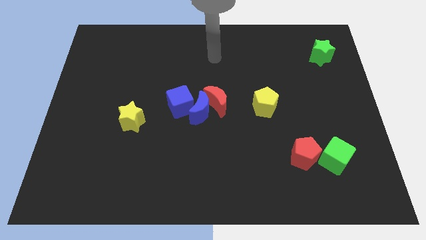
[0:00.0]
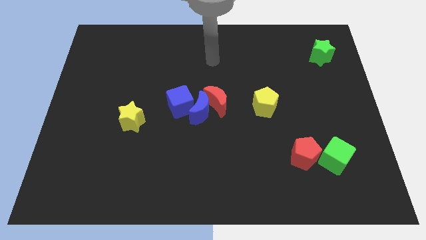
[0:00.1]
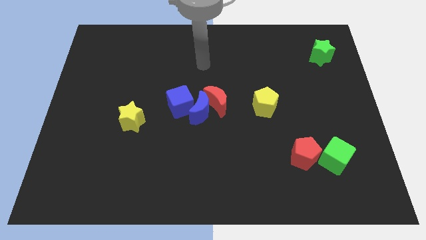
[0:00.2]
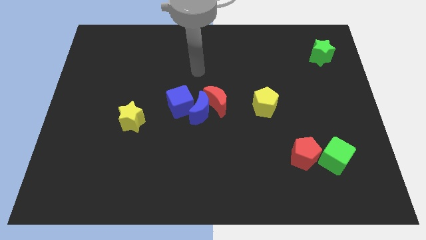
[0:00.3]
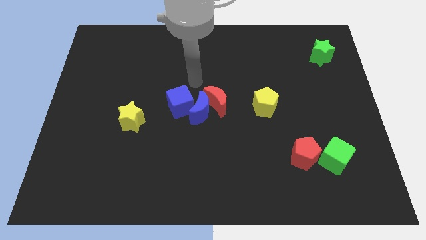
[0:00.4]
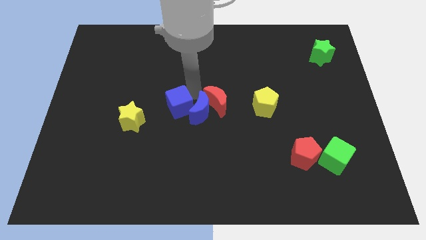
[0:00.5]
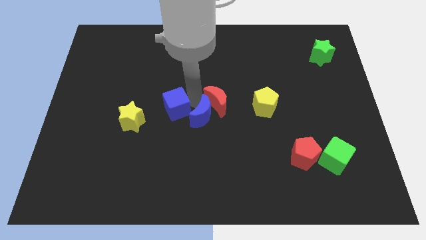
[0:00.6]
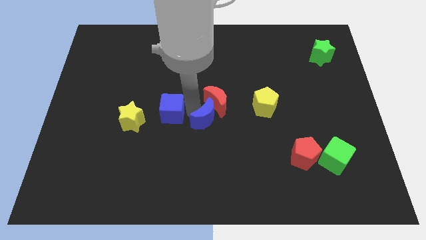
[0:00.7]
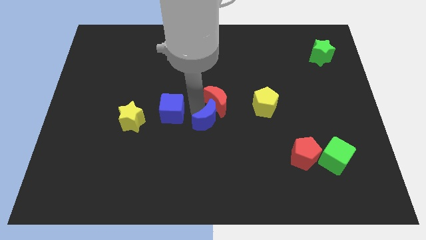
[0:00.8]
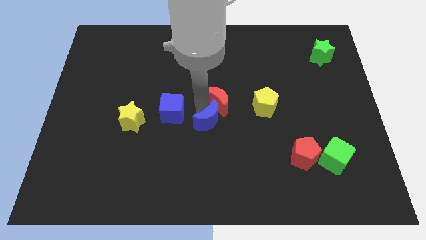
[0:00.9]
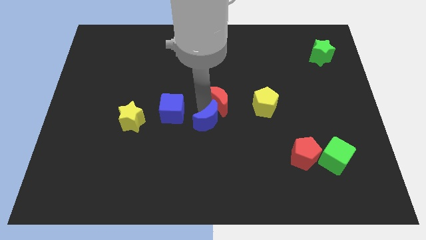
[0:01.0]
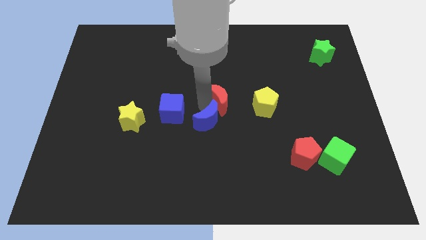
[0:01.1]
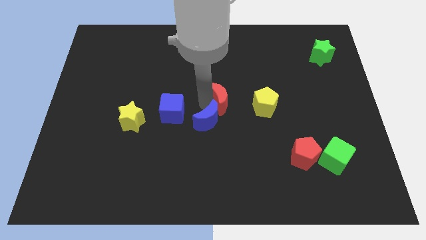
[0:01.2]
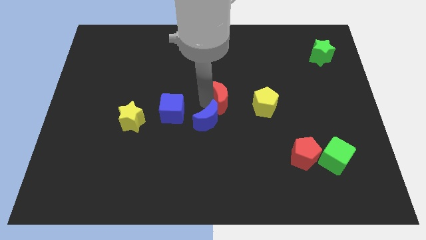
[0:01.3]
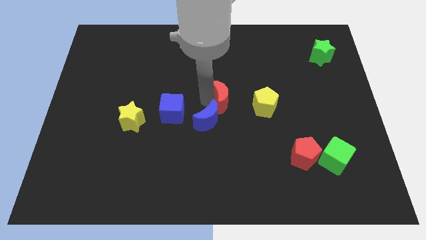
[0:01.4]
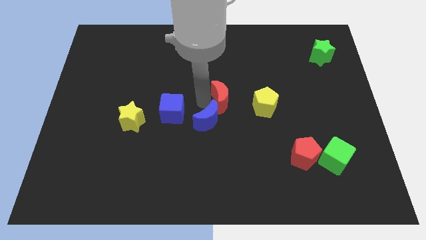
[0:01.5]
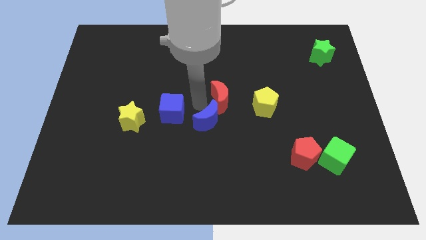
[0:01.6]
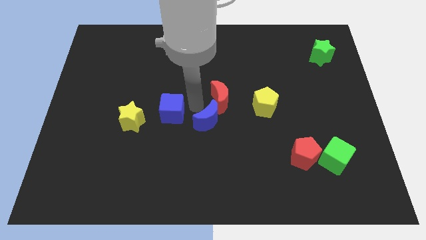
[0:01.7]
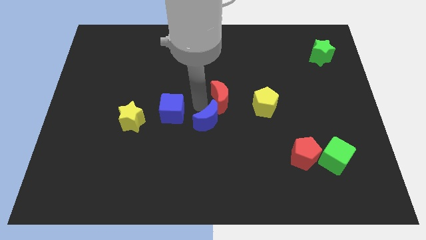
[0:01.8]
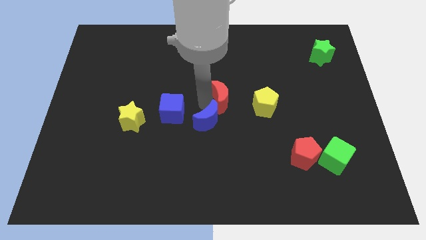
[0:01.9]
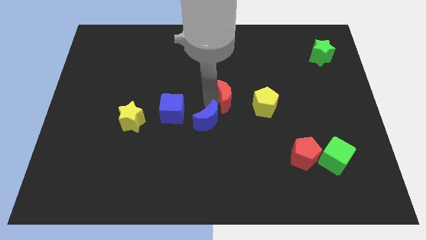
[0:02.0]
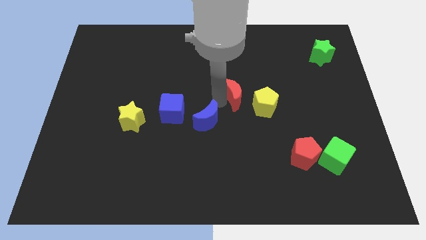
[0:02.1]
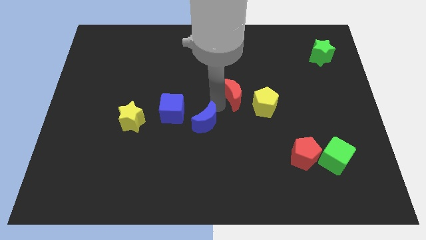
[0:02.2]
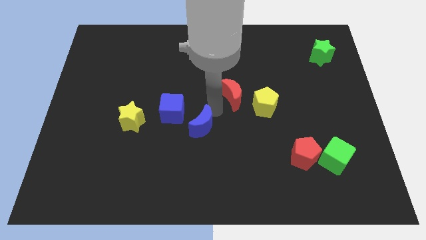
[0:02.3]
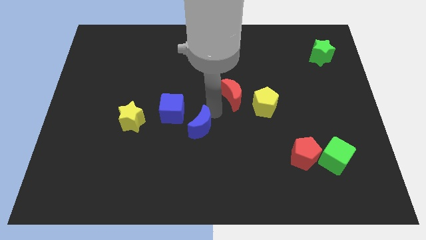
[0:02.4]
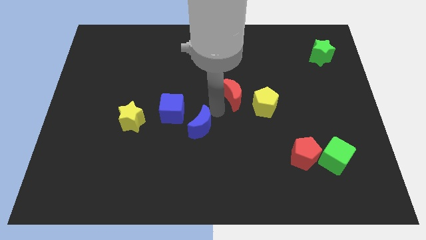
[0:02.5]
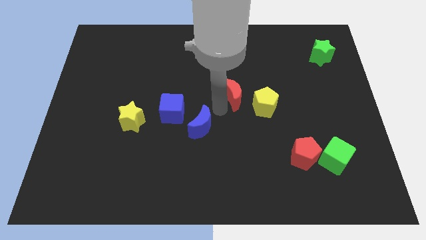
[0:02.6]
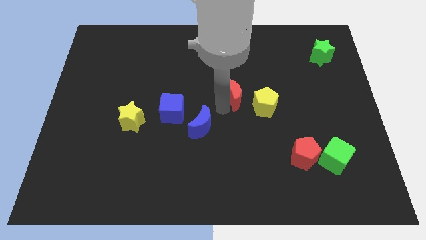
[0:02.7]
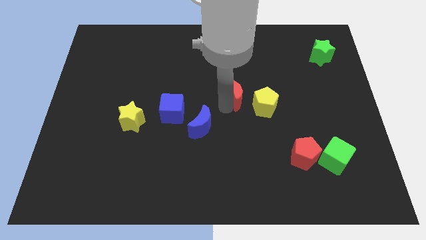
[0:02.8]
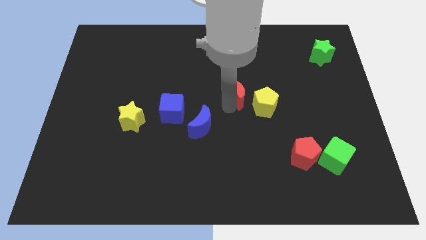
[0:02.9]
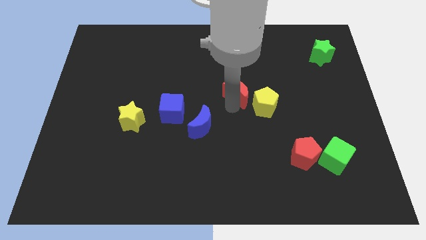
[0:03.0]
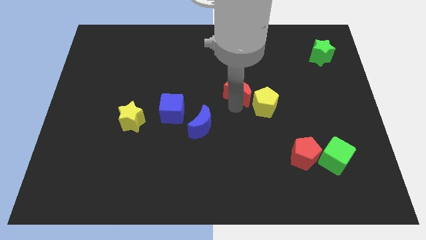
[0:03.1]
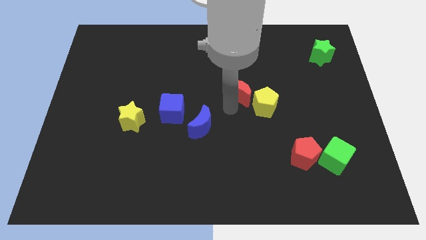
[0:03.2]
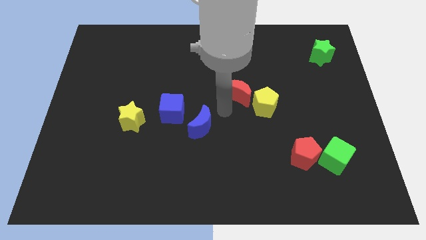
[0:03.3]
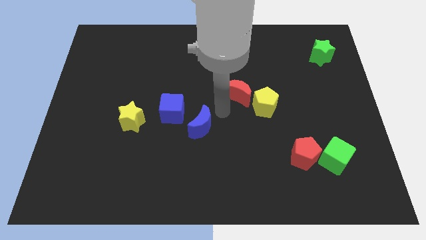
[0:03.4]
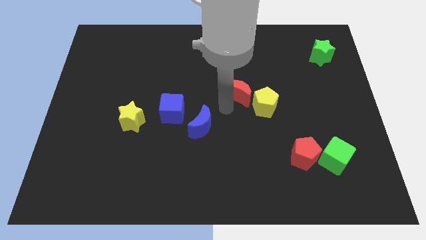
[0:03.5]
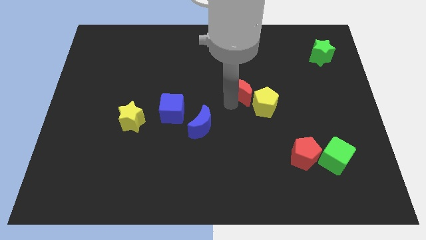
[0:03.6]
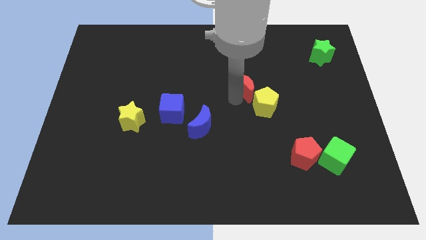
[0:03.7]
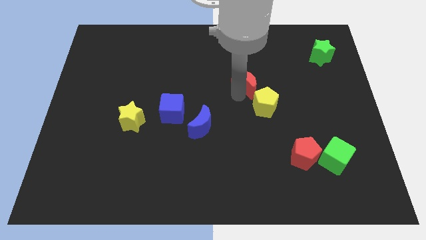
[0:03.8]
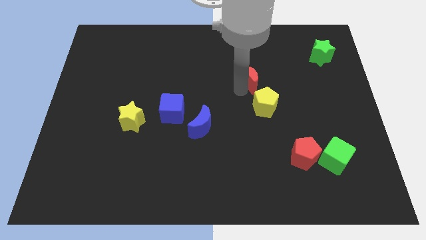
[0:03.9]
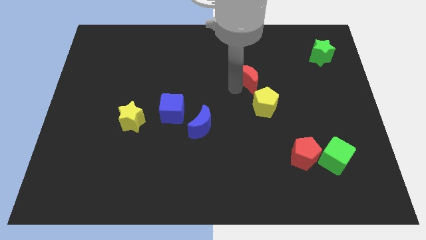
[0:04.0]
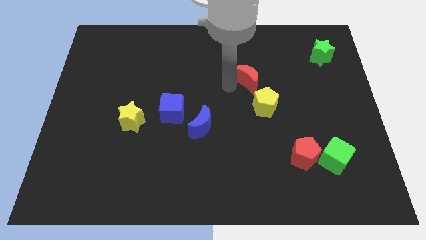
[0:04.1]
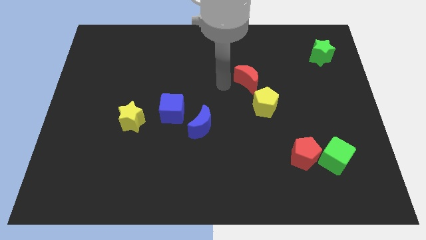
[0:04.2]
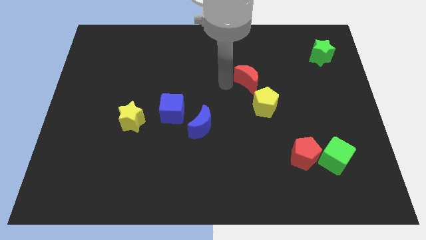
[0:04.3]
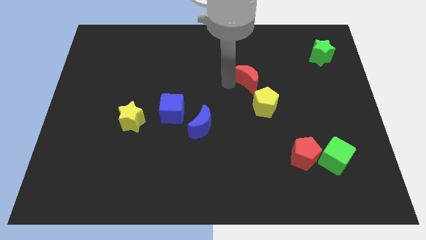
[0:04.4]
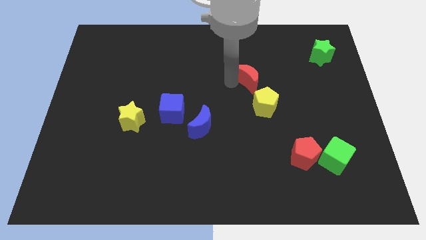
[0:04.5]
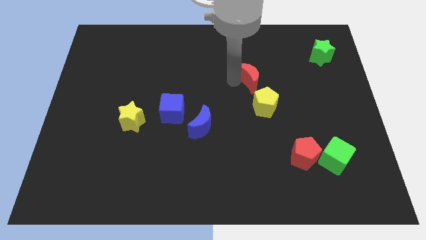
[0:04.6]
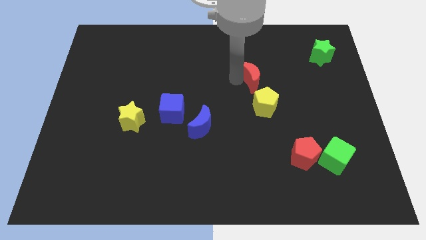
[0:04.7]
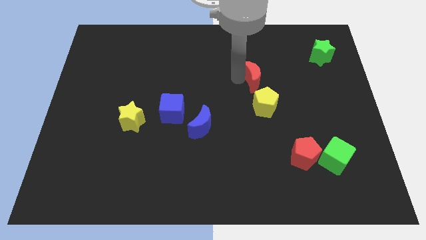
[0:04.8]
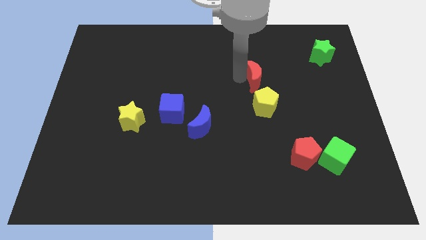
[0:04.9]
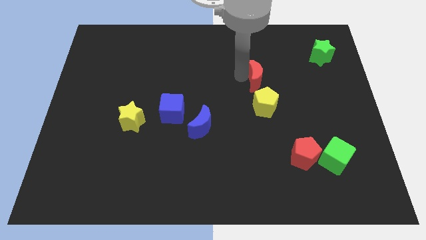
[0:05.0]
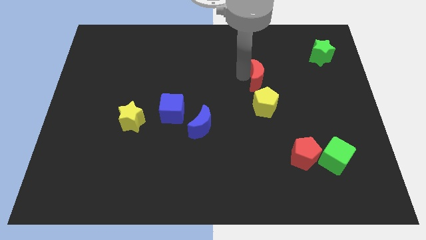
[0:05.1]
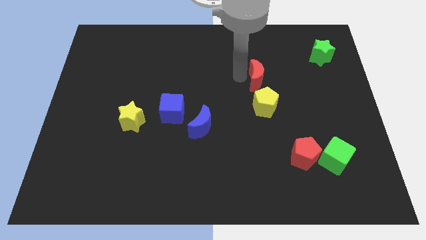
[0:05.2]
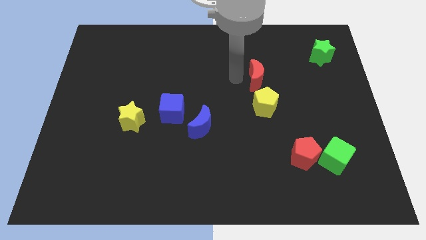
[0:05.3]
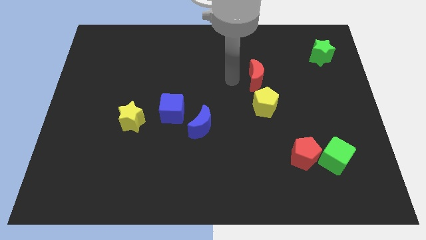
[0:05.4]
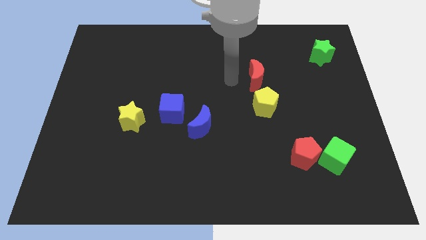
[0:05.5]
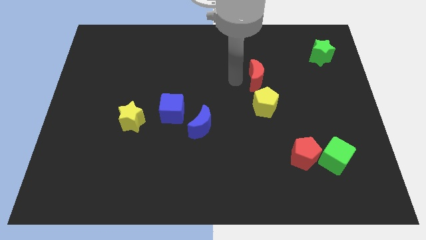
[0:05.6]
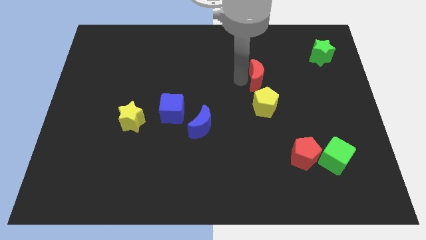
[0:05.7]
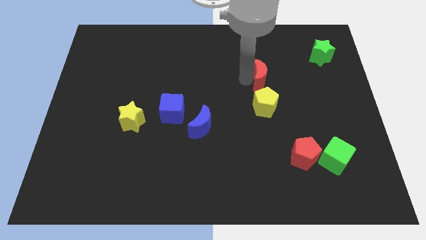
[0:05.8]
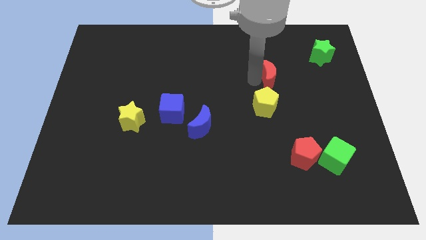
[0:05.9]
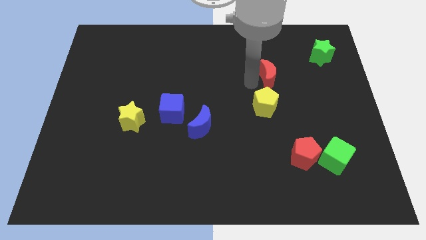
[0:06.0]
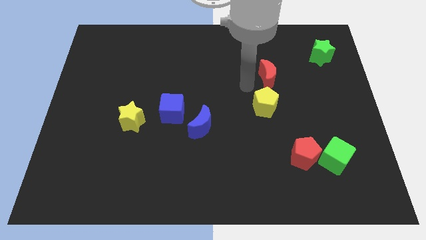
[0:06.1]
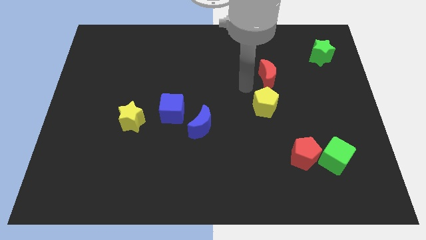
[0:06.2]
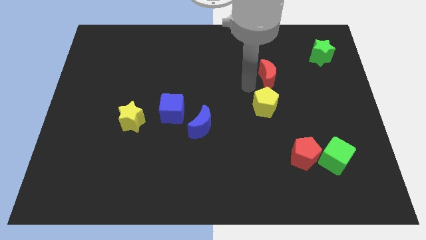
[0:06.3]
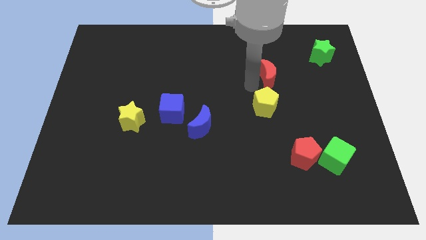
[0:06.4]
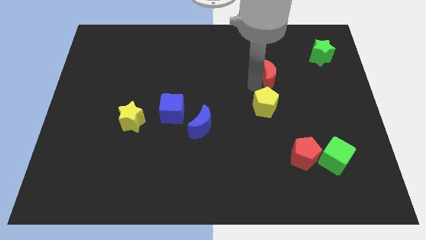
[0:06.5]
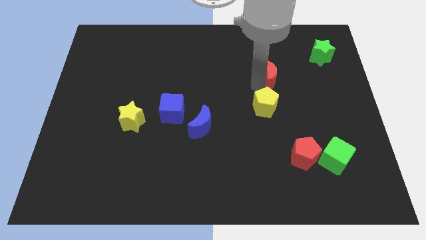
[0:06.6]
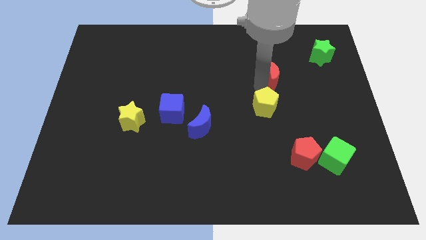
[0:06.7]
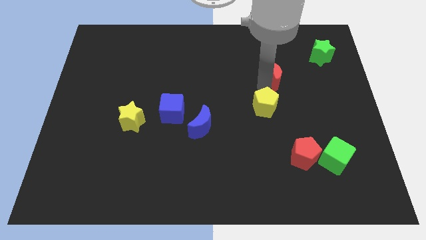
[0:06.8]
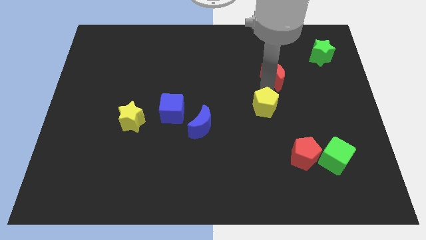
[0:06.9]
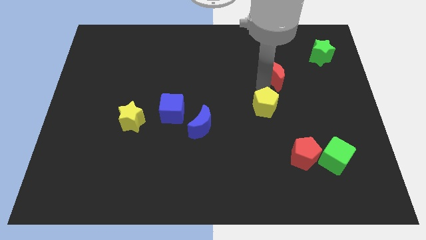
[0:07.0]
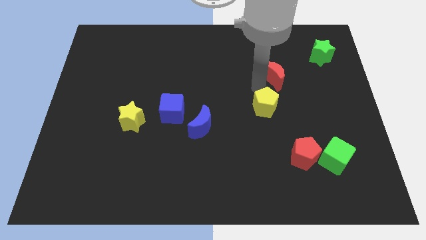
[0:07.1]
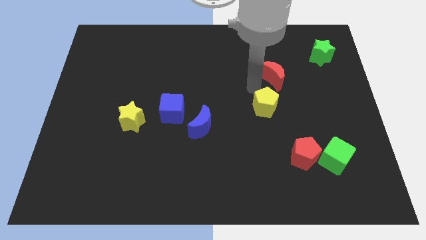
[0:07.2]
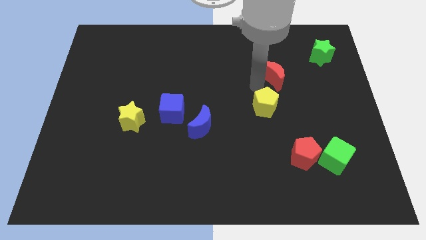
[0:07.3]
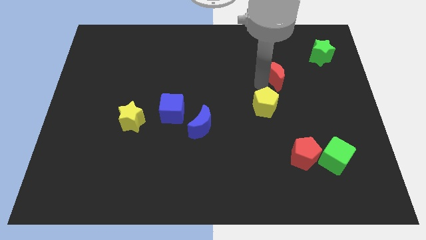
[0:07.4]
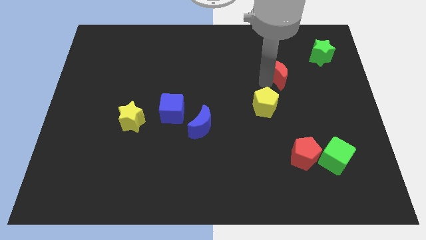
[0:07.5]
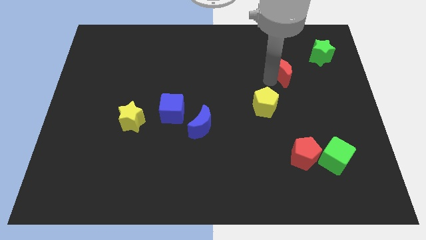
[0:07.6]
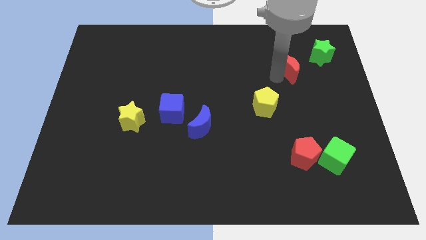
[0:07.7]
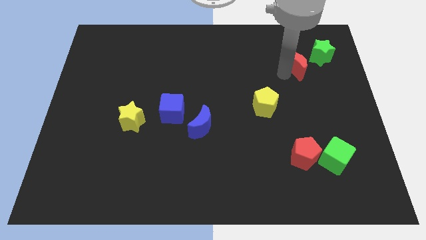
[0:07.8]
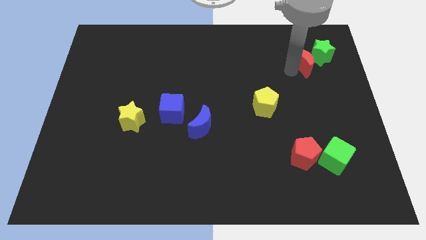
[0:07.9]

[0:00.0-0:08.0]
move the red moon next to the green star
